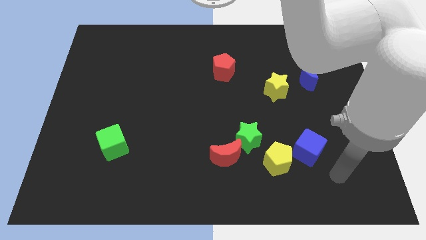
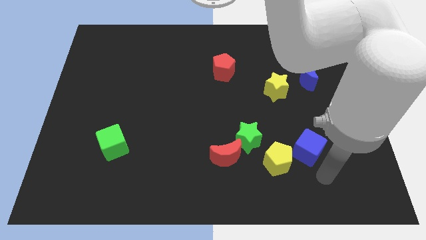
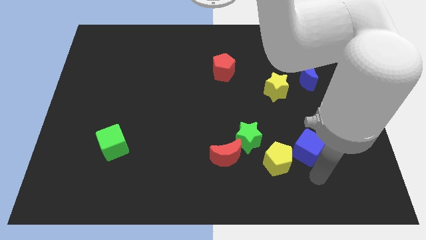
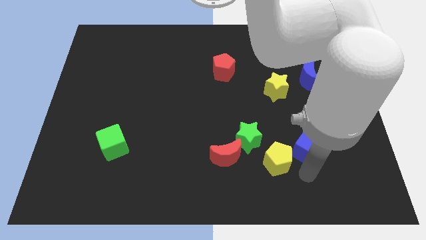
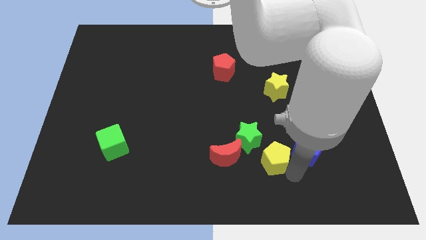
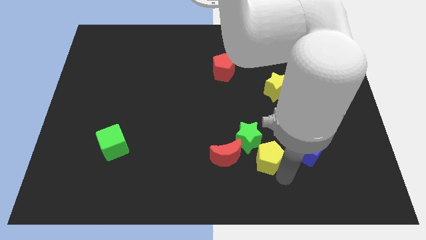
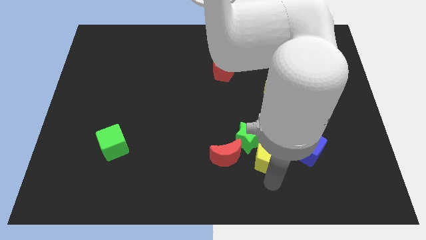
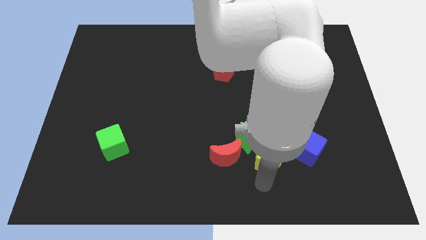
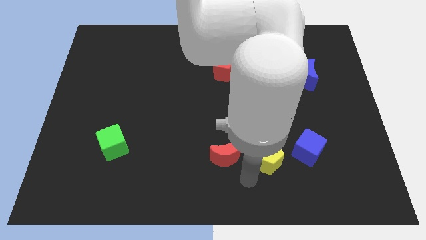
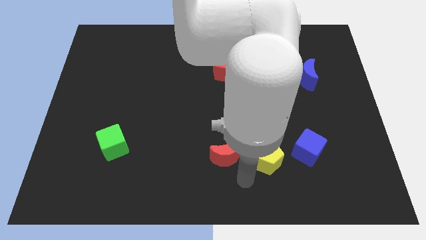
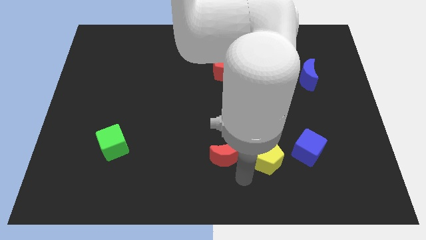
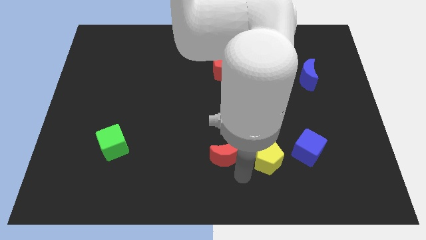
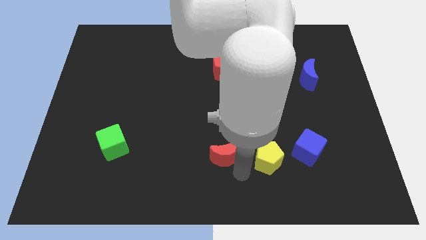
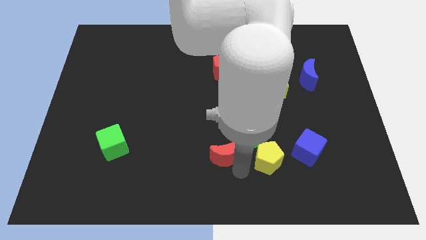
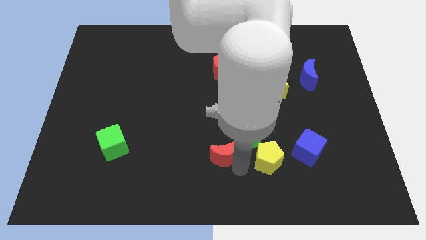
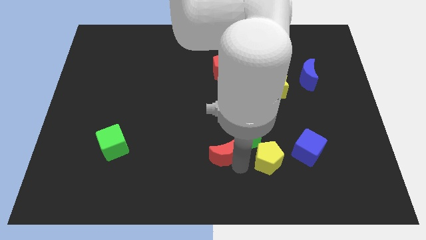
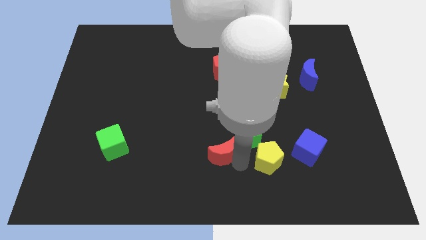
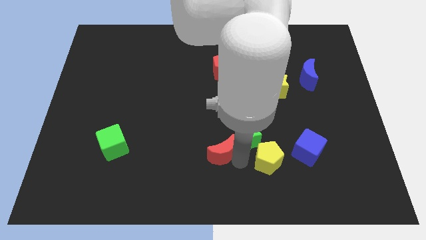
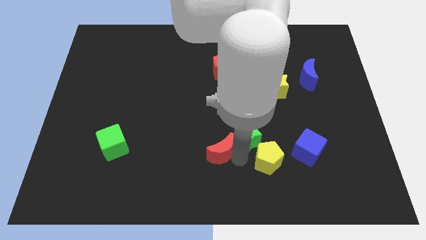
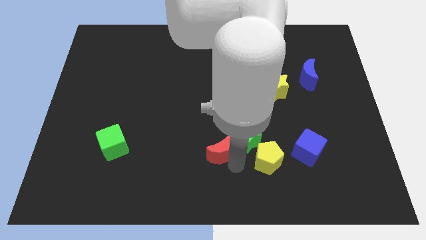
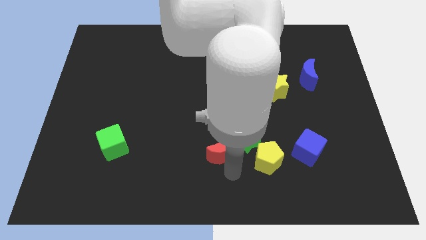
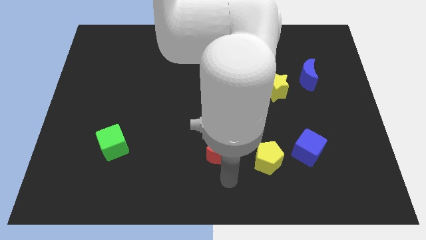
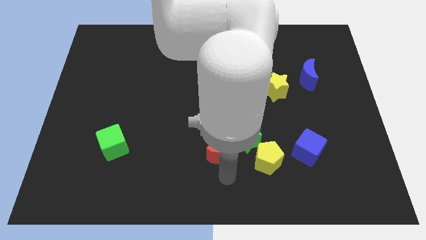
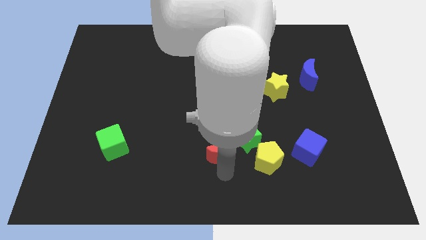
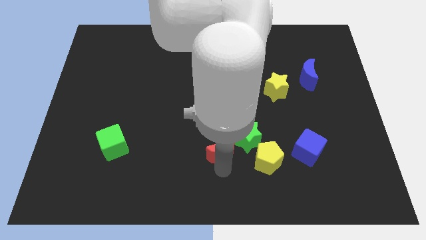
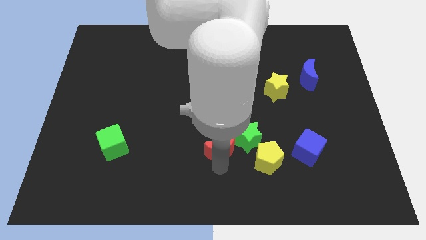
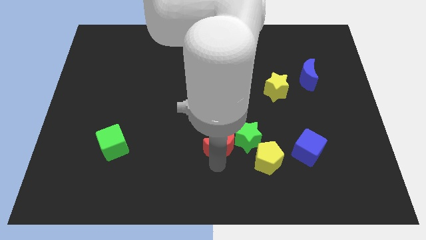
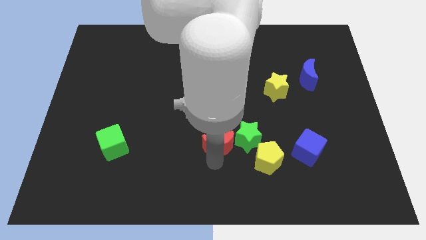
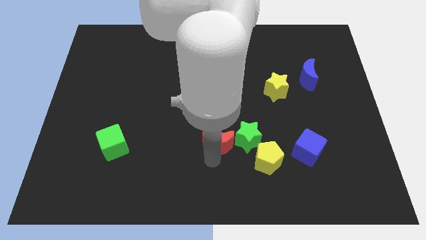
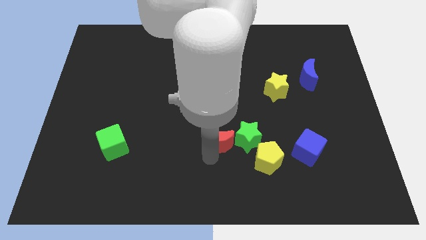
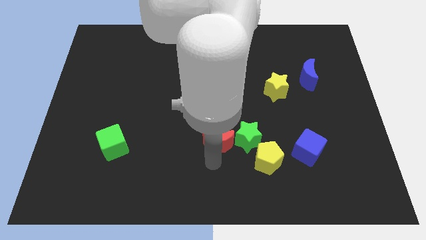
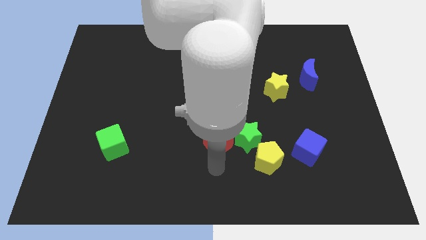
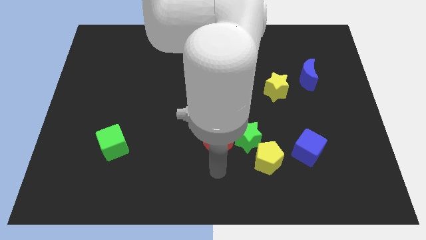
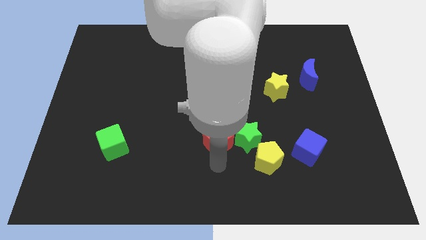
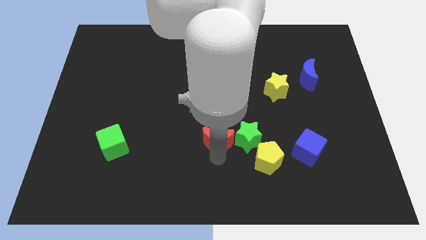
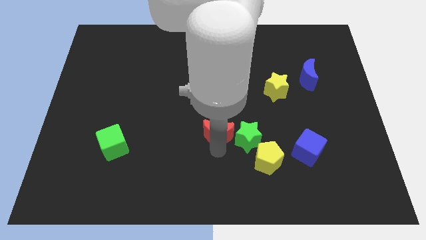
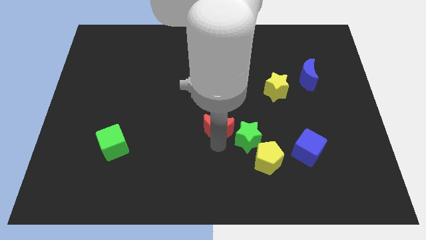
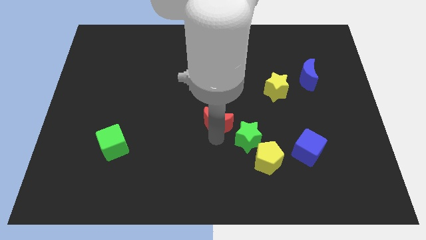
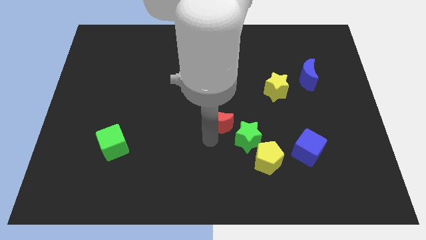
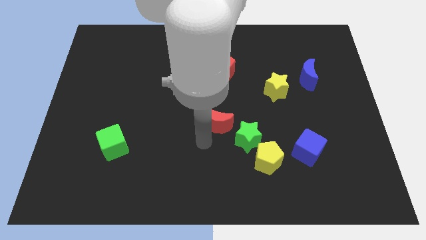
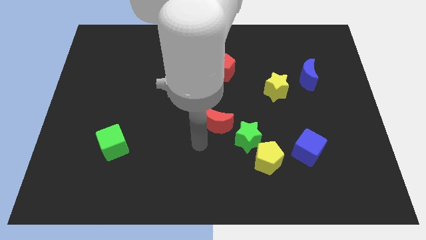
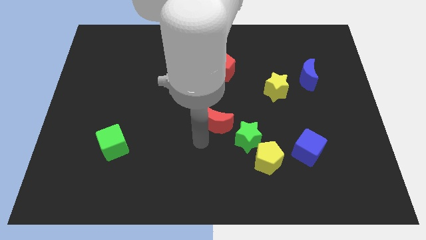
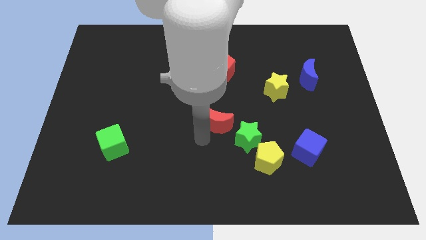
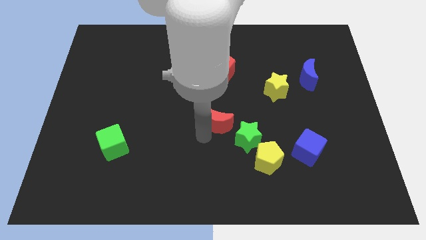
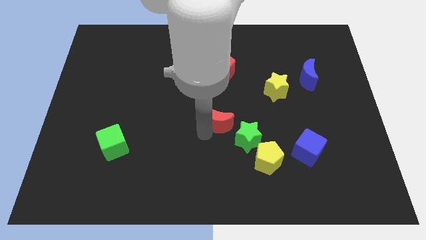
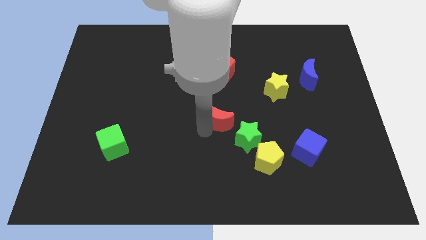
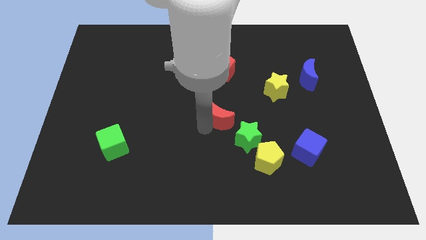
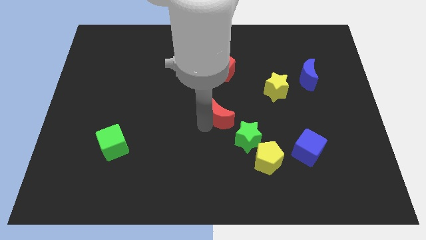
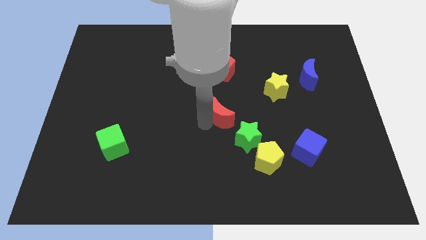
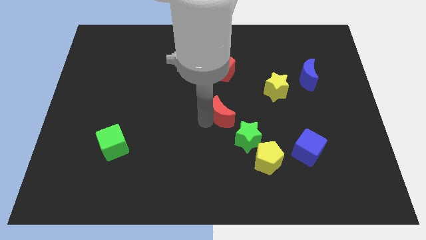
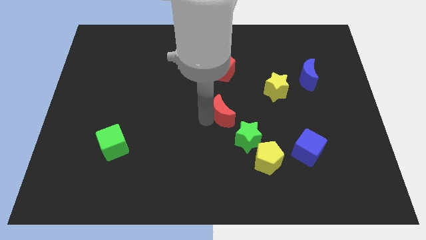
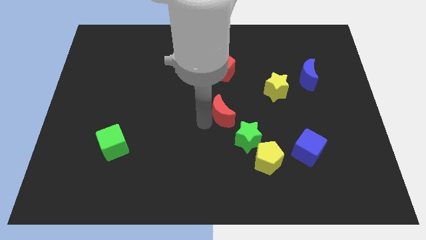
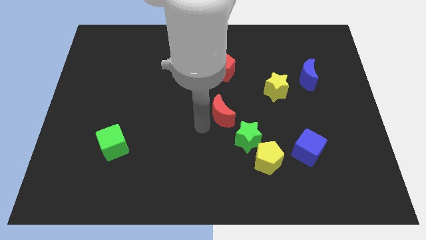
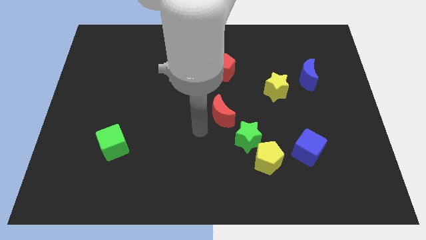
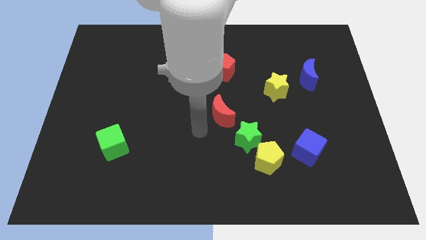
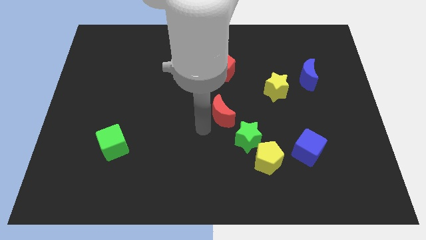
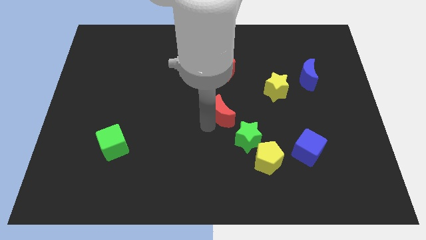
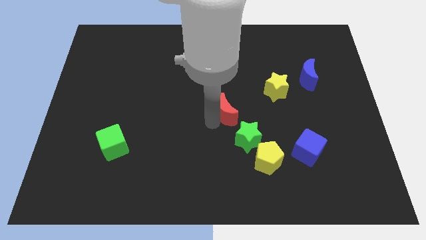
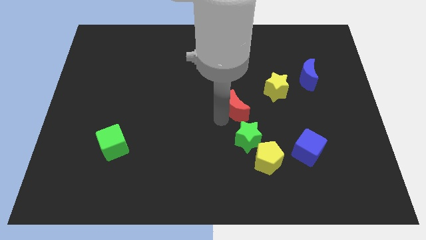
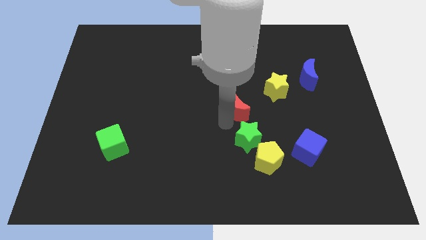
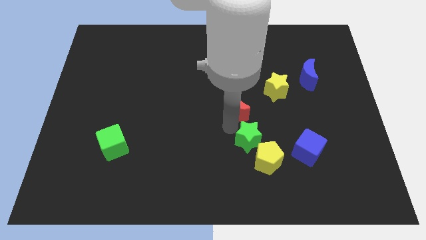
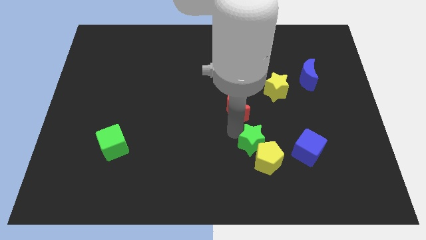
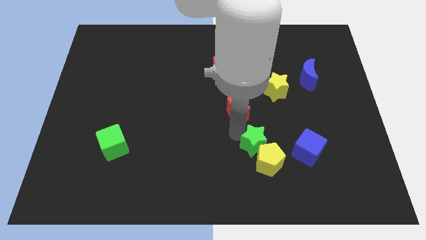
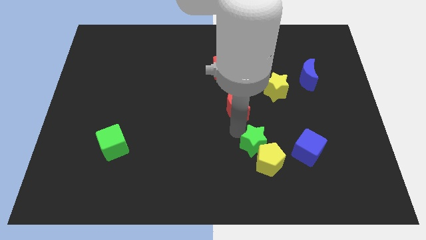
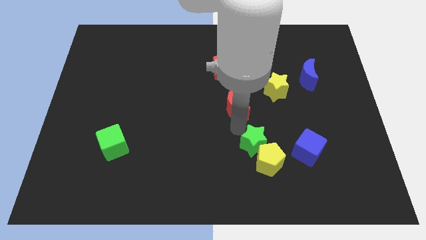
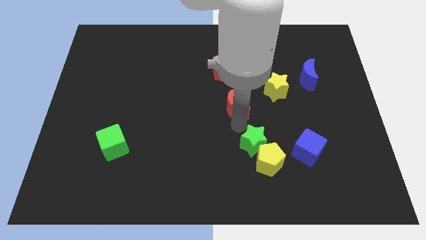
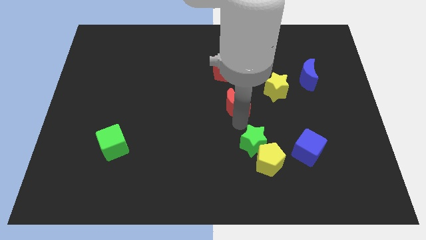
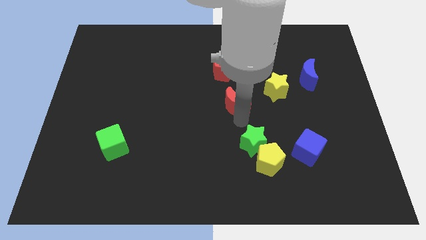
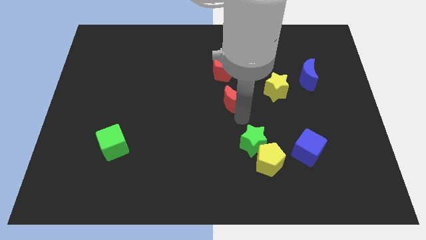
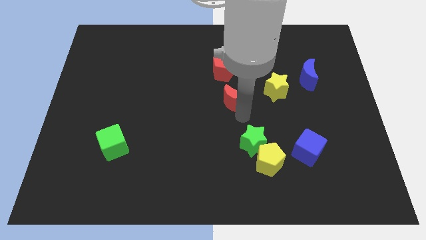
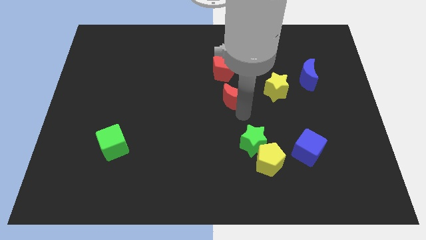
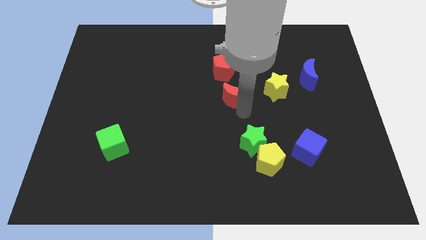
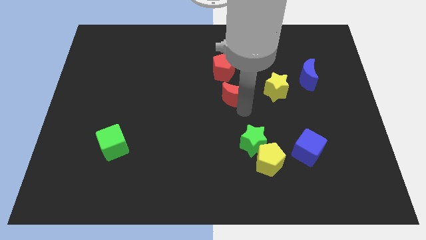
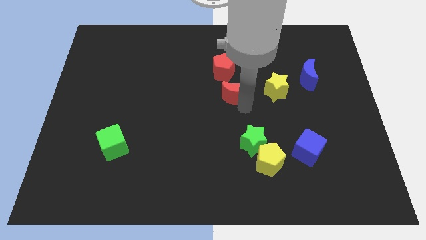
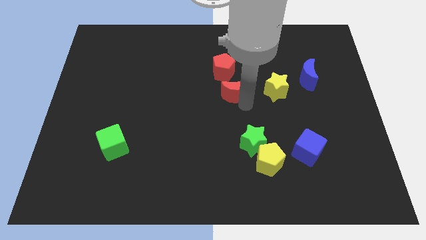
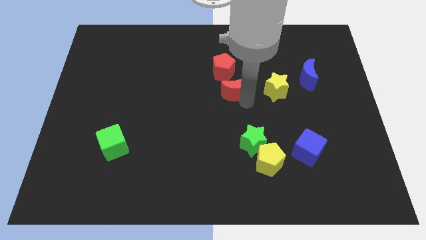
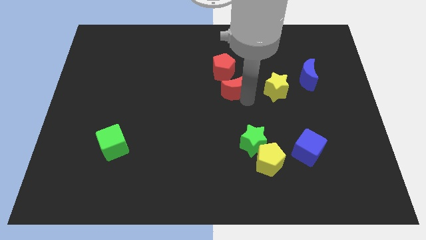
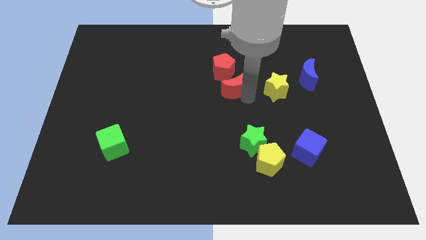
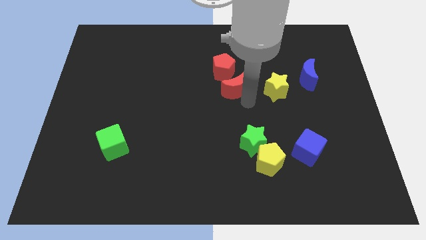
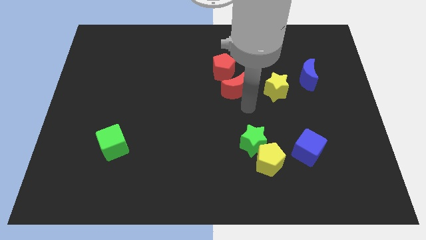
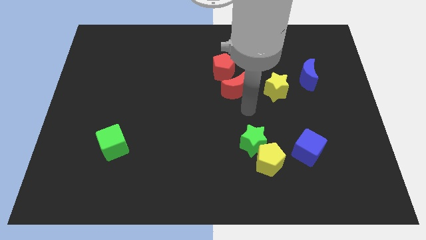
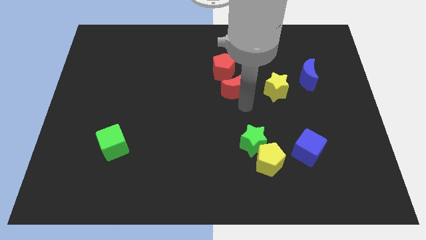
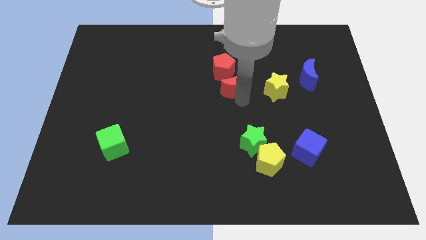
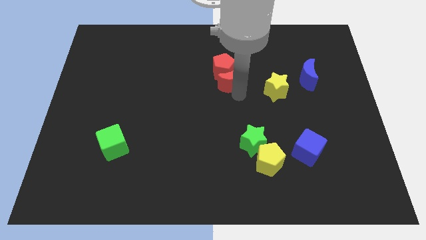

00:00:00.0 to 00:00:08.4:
move the red moon towards the red pentagon
